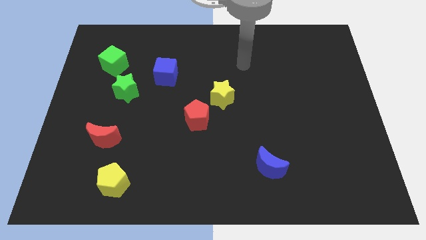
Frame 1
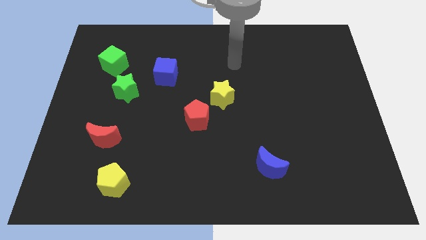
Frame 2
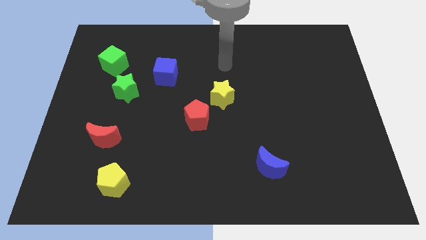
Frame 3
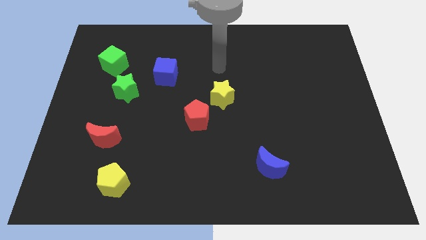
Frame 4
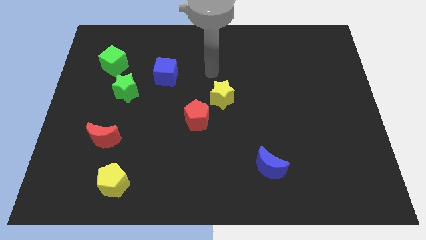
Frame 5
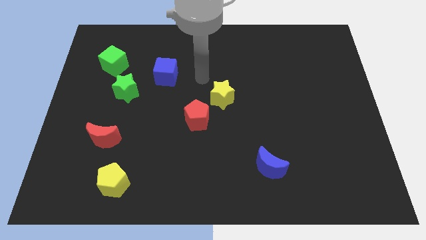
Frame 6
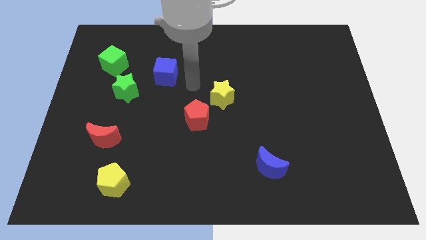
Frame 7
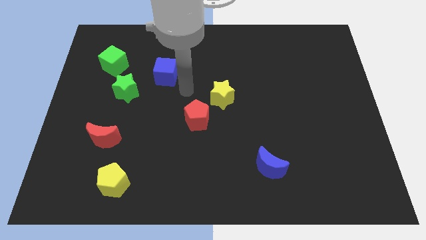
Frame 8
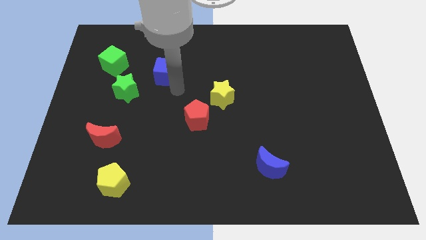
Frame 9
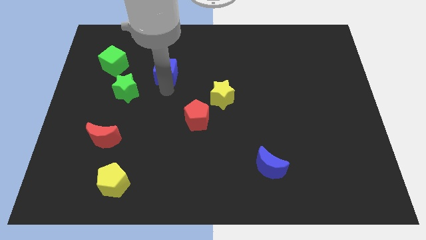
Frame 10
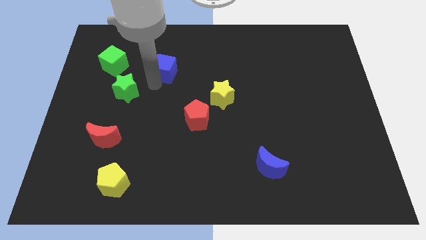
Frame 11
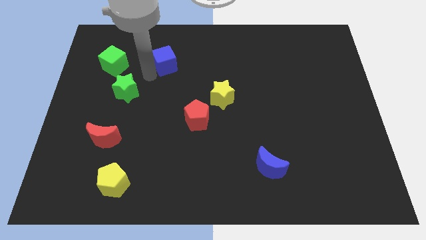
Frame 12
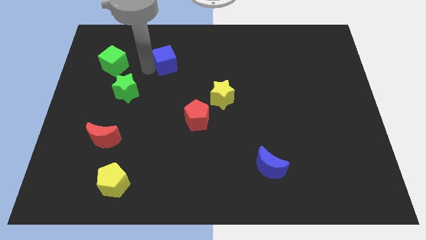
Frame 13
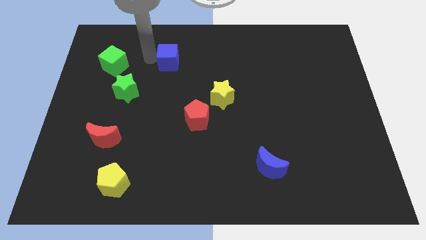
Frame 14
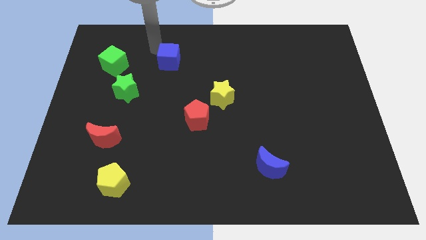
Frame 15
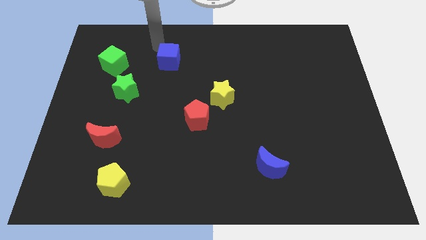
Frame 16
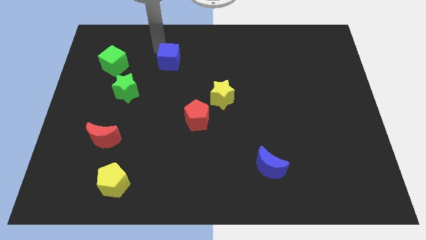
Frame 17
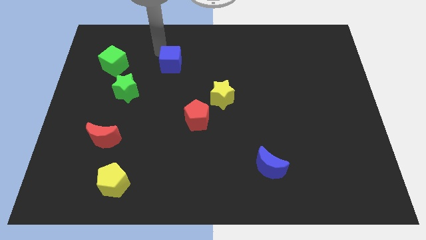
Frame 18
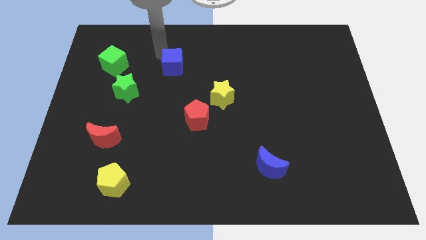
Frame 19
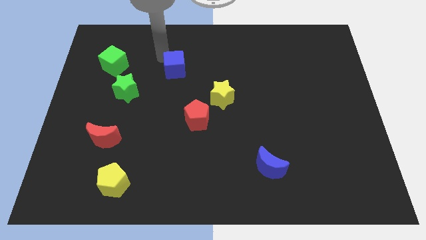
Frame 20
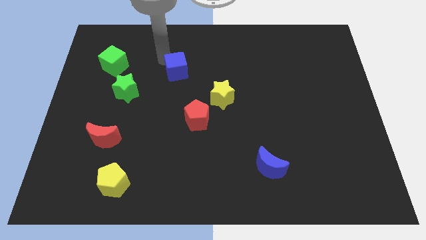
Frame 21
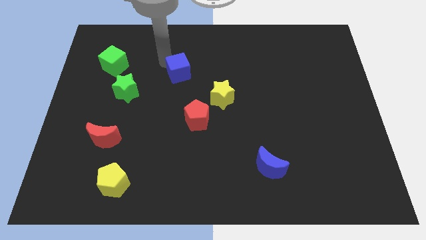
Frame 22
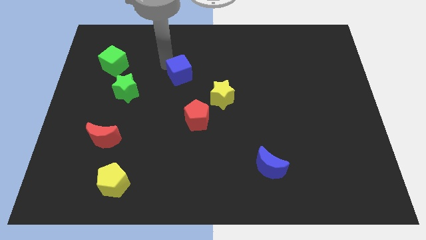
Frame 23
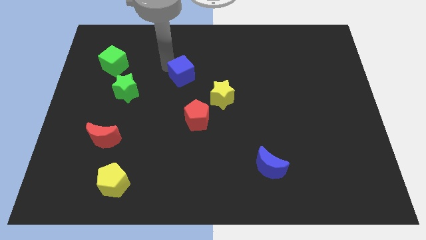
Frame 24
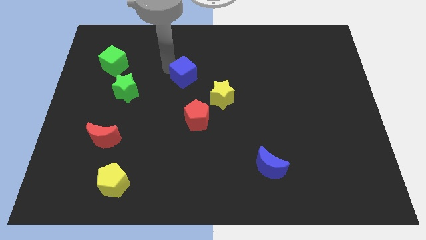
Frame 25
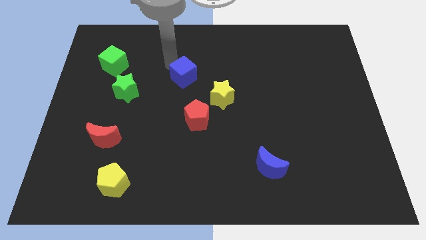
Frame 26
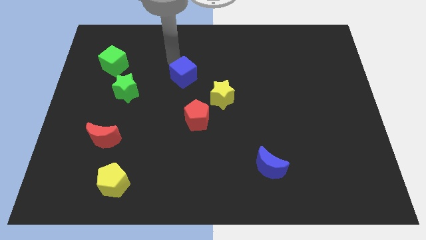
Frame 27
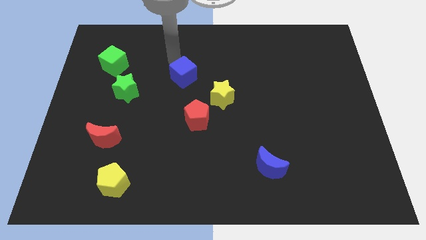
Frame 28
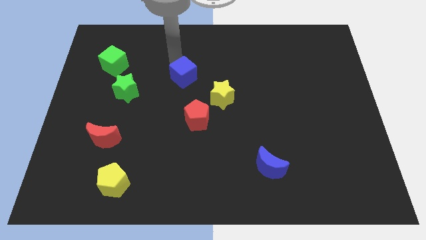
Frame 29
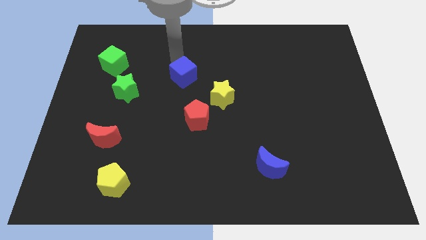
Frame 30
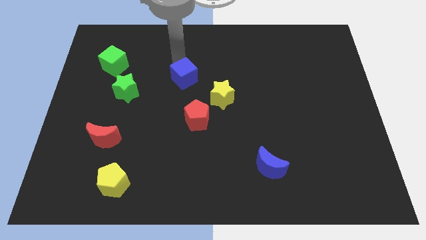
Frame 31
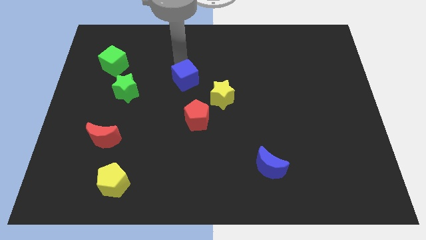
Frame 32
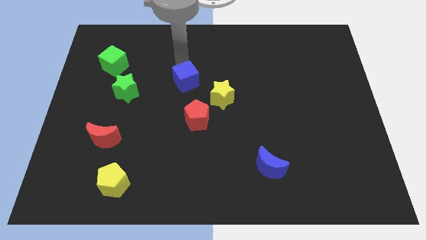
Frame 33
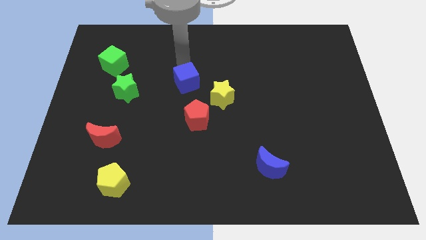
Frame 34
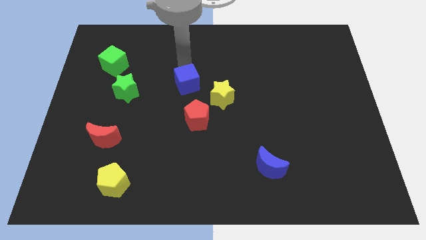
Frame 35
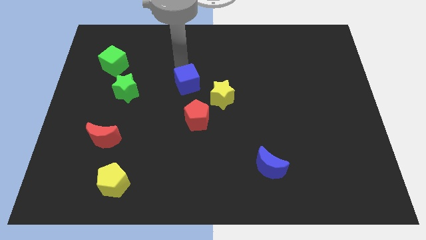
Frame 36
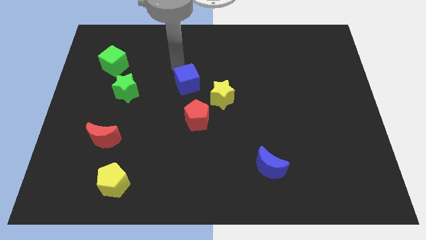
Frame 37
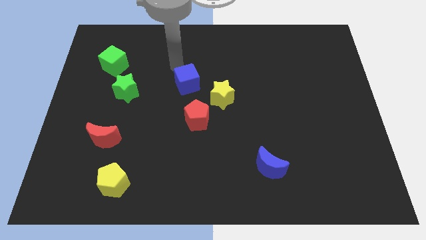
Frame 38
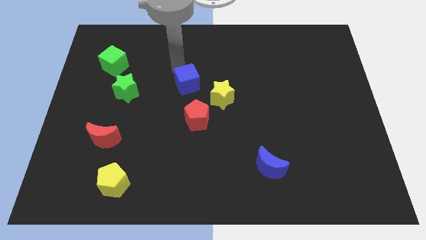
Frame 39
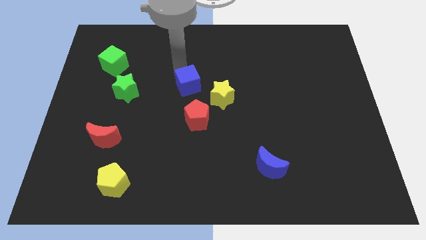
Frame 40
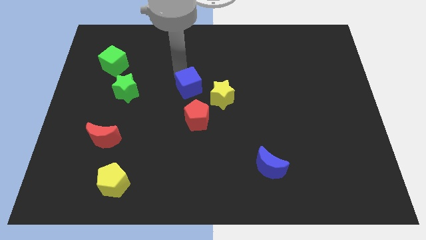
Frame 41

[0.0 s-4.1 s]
move the blue cube diagonally downwards and to the right slightly

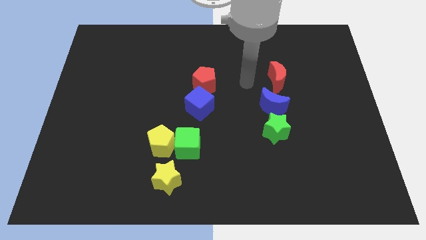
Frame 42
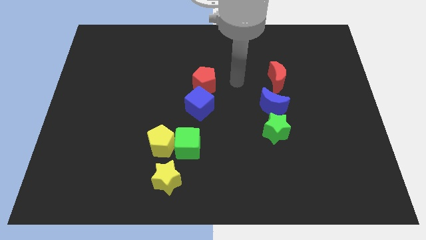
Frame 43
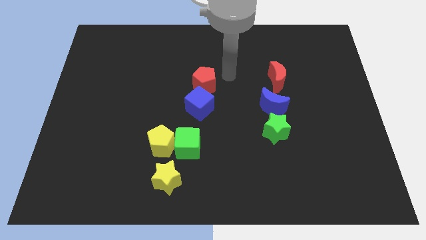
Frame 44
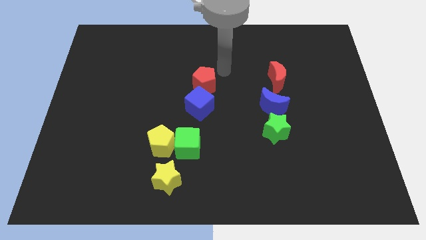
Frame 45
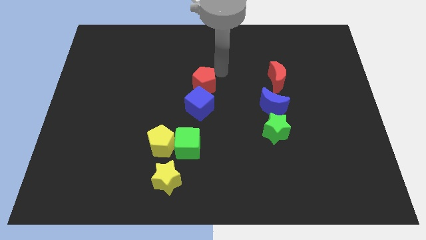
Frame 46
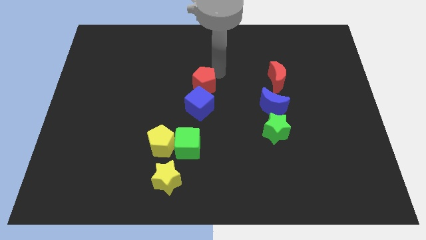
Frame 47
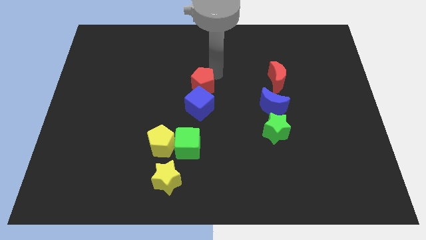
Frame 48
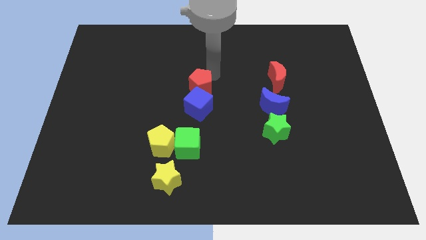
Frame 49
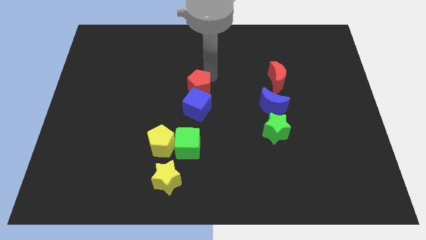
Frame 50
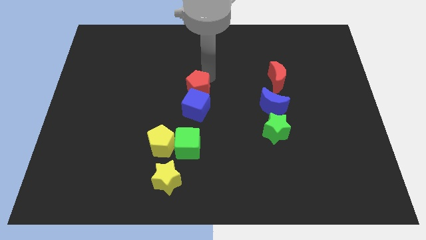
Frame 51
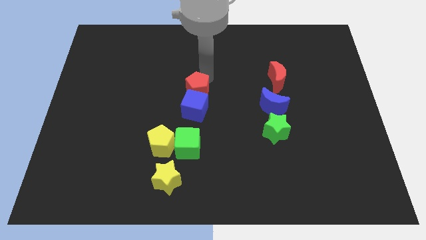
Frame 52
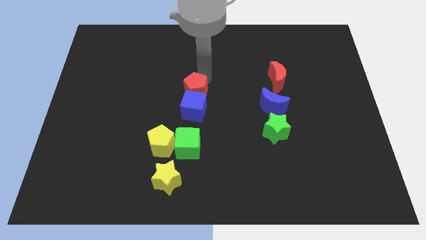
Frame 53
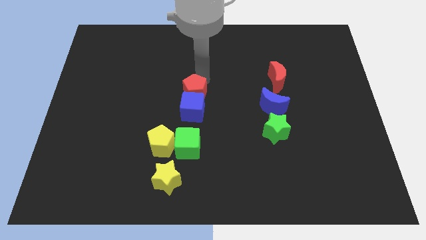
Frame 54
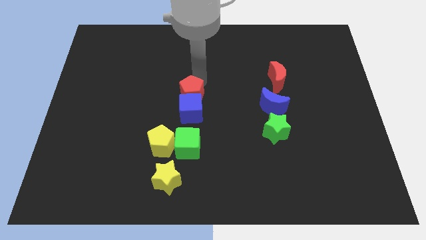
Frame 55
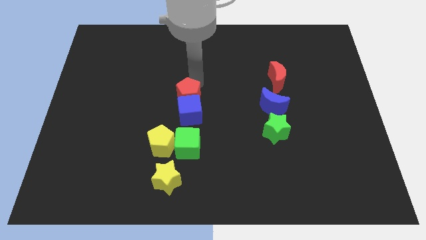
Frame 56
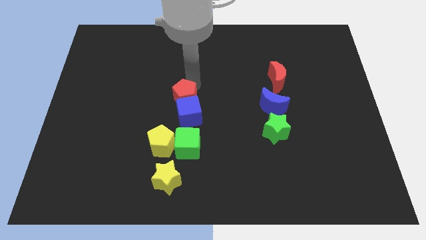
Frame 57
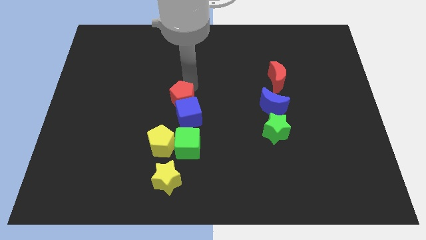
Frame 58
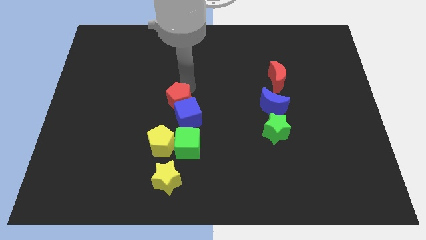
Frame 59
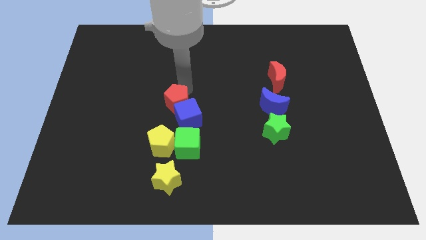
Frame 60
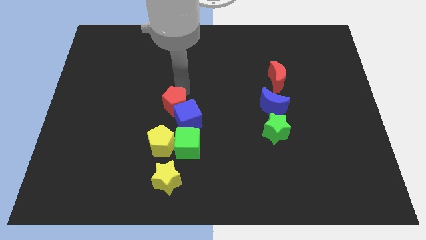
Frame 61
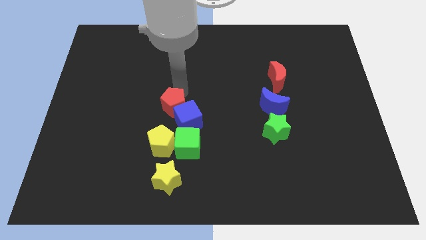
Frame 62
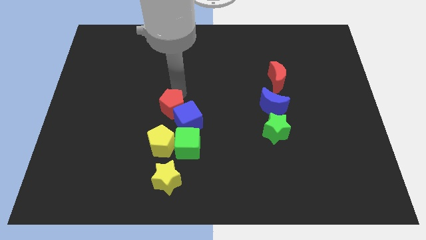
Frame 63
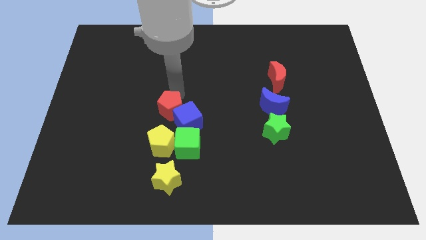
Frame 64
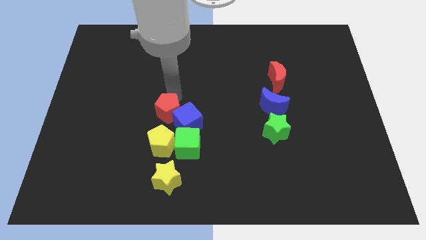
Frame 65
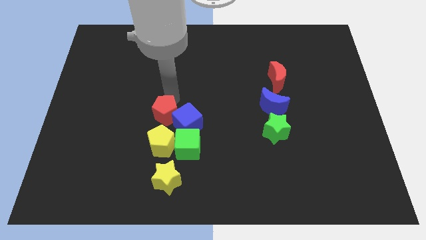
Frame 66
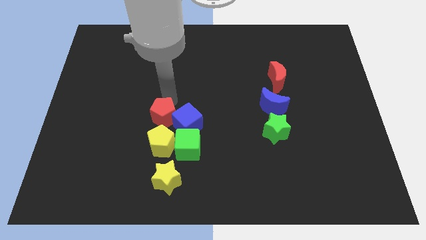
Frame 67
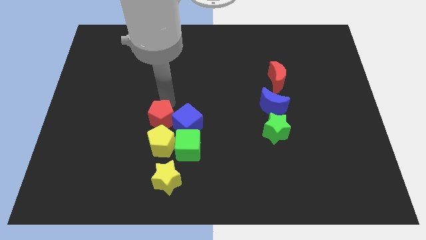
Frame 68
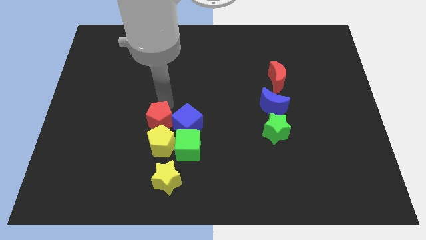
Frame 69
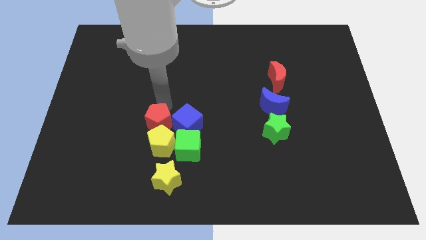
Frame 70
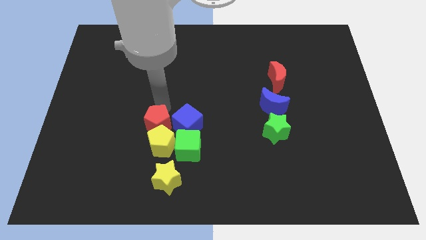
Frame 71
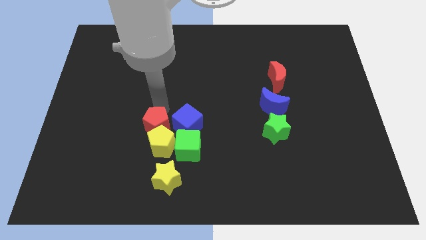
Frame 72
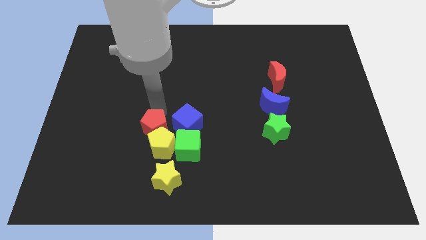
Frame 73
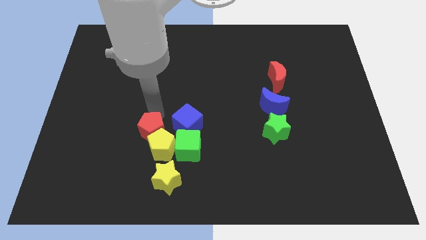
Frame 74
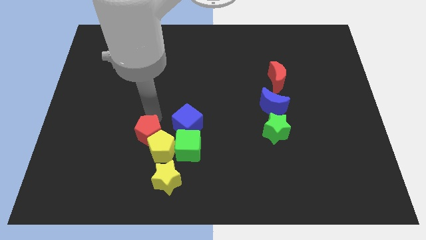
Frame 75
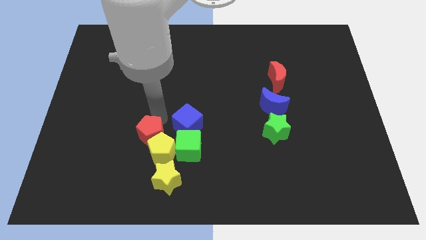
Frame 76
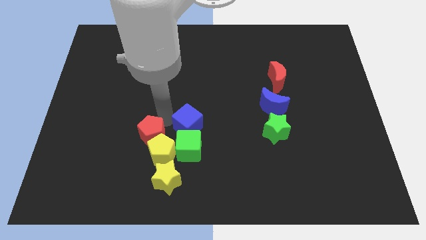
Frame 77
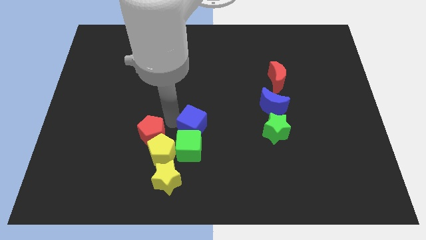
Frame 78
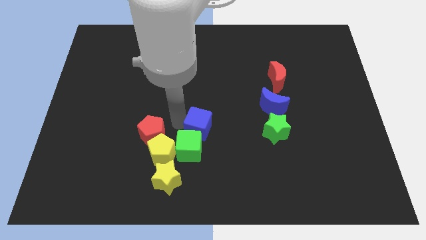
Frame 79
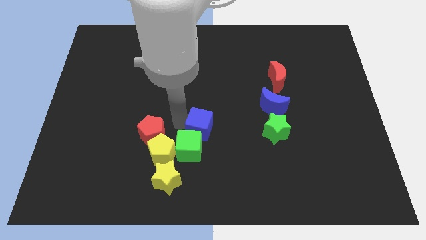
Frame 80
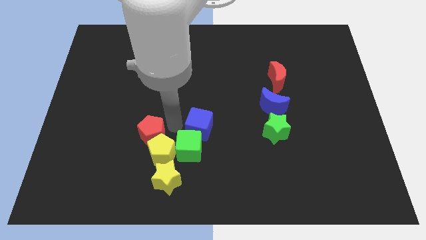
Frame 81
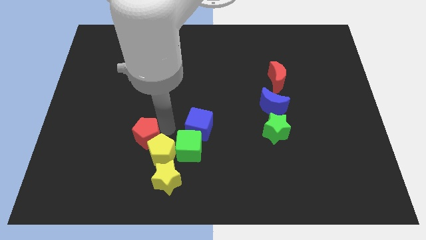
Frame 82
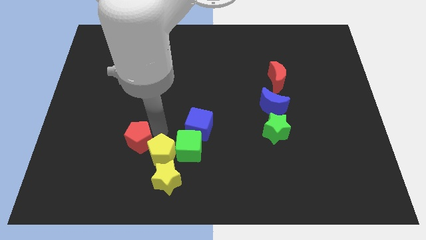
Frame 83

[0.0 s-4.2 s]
move the red pentagon down and to the left diagonally

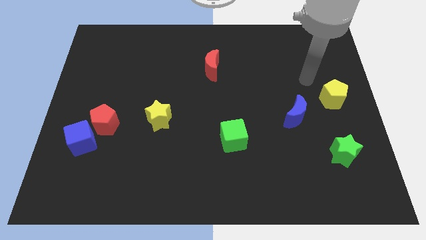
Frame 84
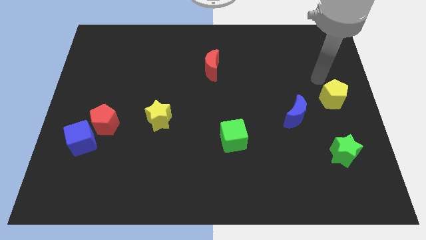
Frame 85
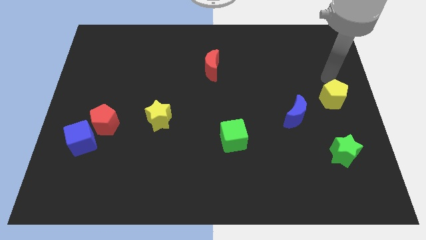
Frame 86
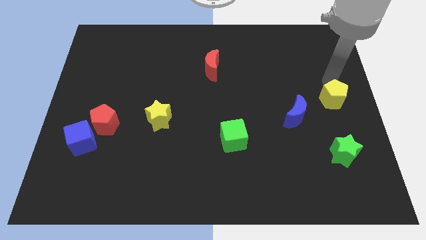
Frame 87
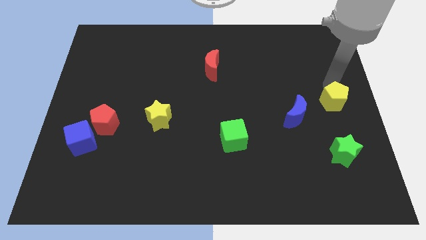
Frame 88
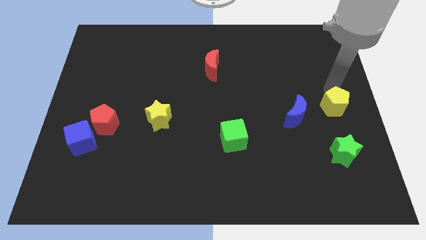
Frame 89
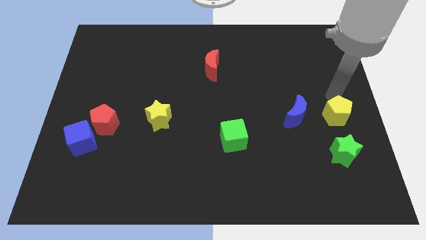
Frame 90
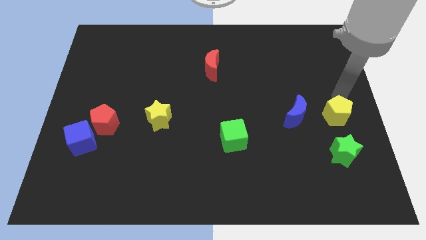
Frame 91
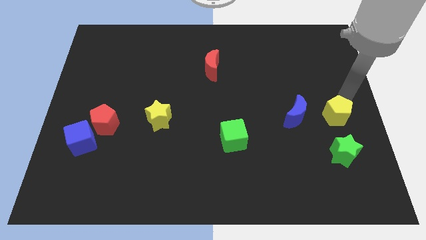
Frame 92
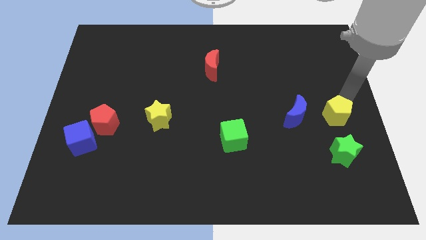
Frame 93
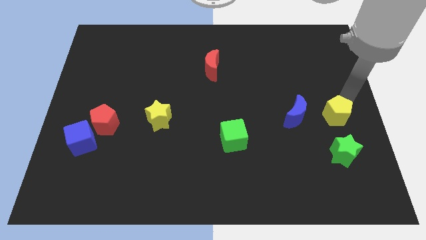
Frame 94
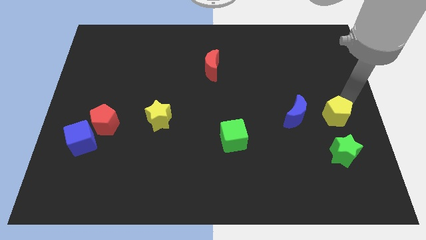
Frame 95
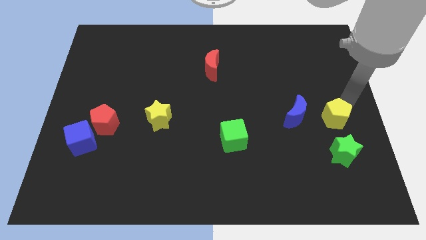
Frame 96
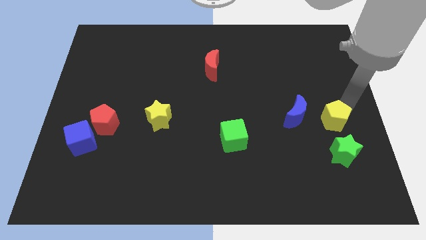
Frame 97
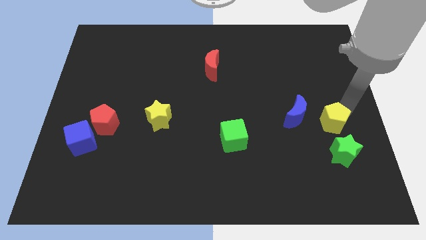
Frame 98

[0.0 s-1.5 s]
slide the yellow pentagon downwards somewhat
